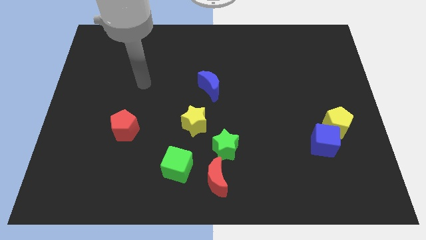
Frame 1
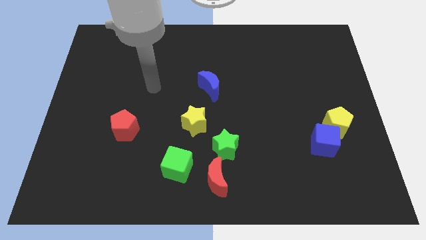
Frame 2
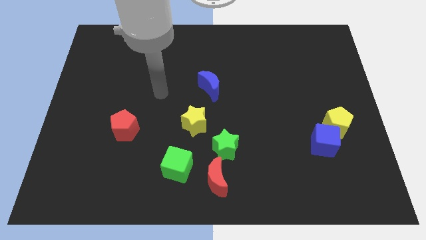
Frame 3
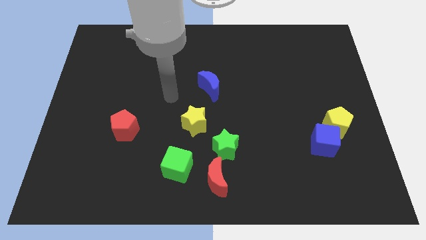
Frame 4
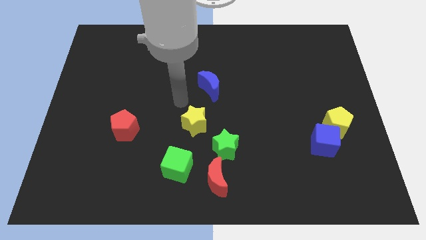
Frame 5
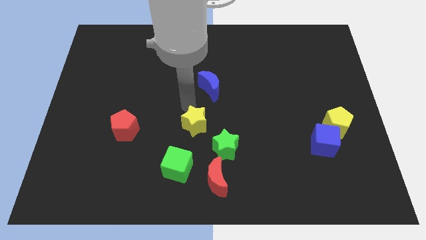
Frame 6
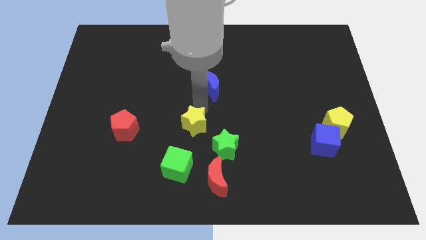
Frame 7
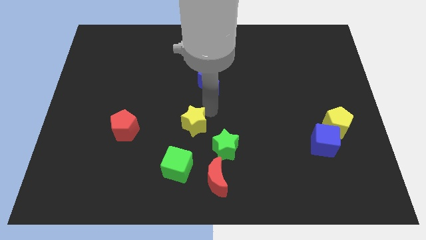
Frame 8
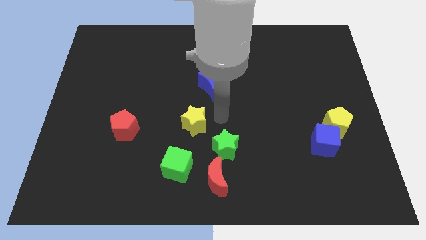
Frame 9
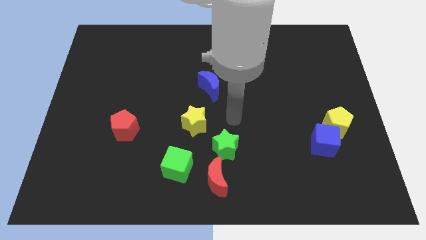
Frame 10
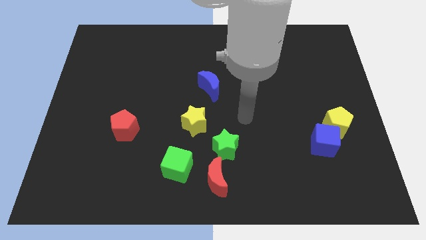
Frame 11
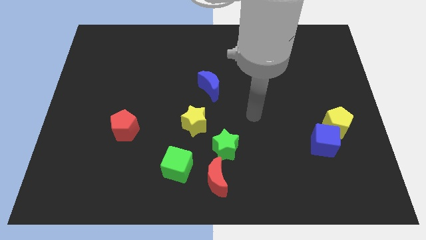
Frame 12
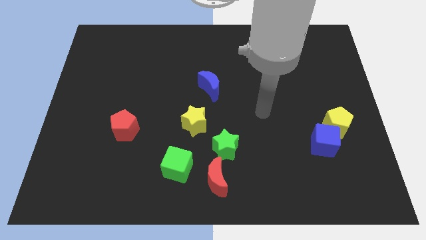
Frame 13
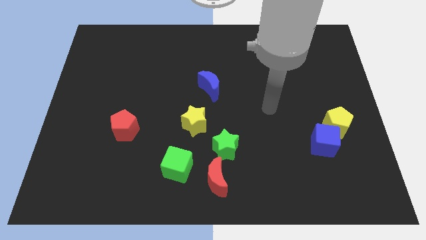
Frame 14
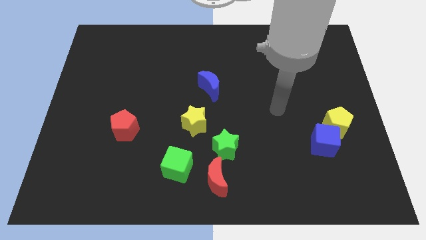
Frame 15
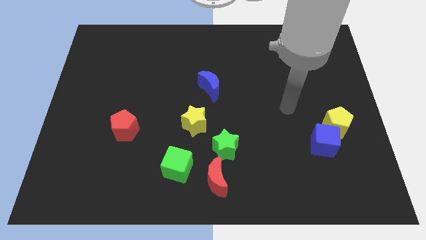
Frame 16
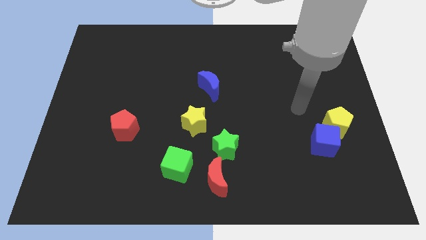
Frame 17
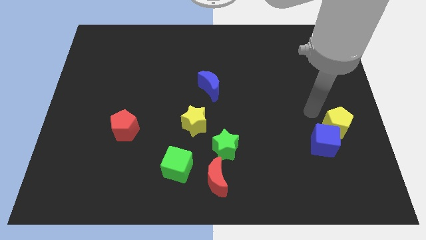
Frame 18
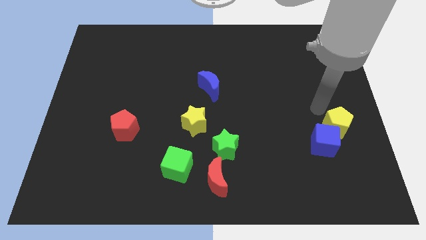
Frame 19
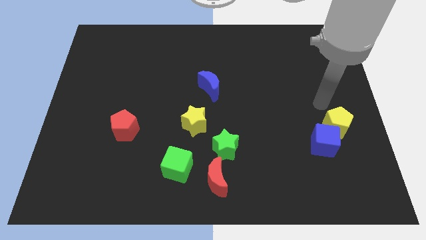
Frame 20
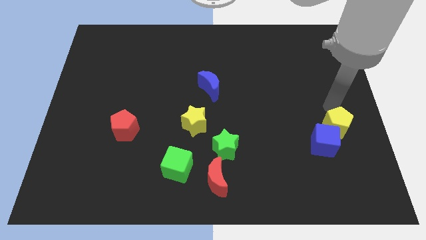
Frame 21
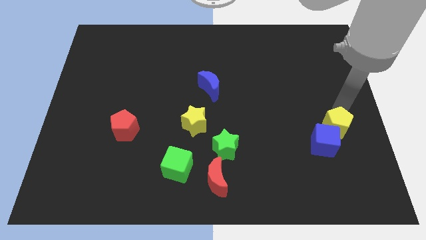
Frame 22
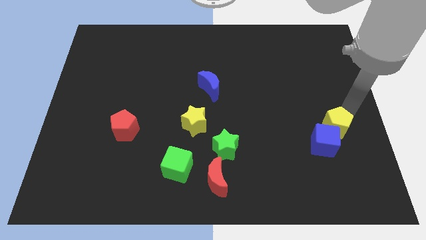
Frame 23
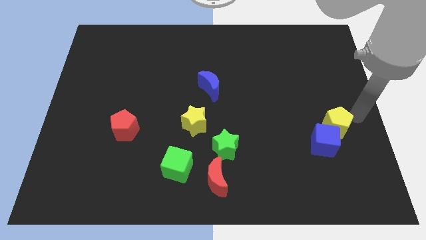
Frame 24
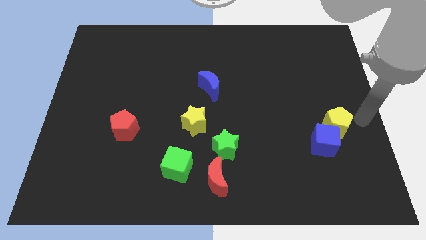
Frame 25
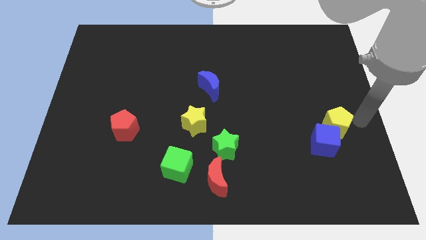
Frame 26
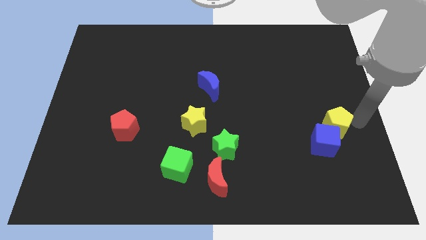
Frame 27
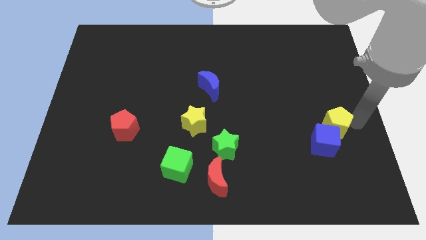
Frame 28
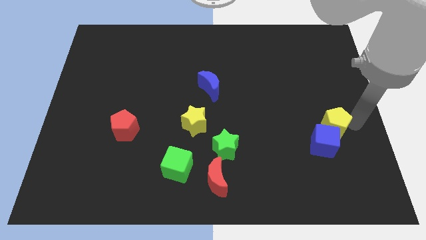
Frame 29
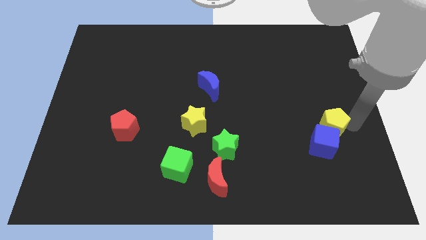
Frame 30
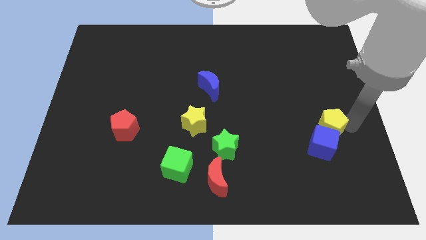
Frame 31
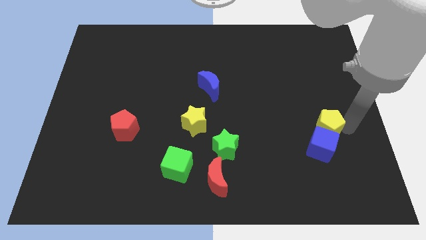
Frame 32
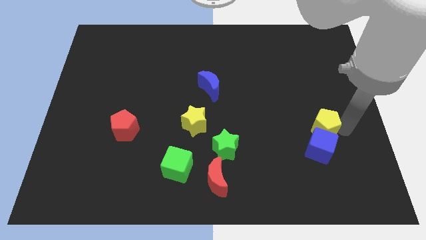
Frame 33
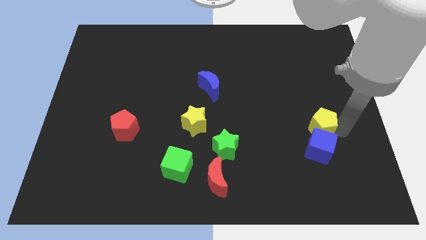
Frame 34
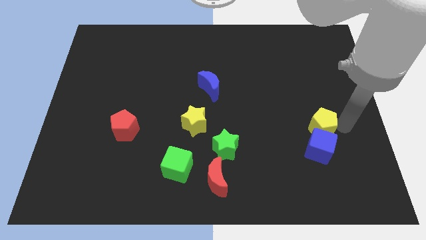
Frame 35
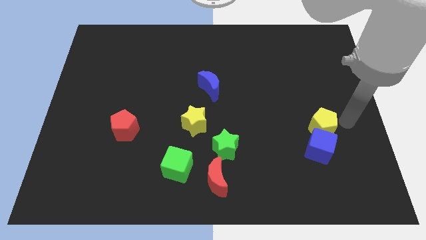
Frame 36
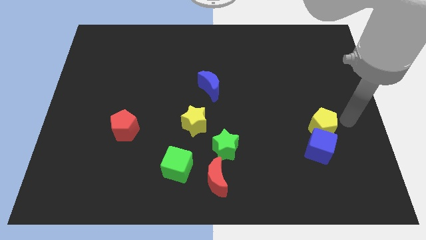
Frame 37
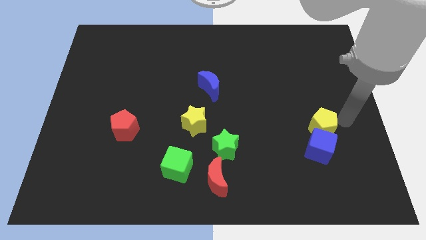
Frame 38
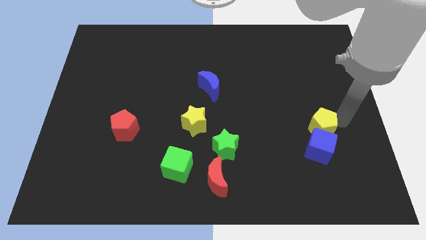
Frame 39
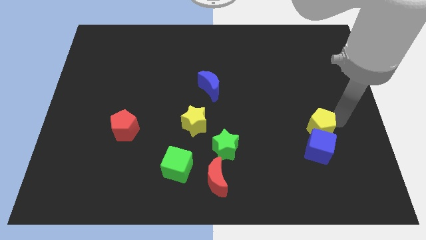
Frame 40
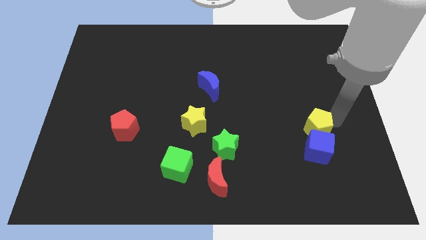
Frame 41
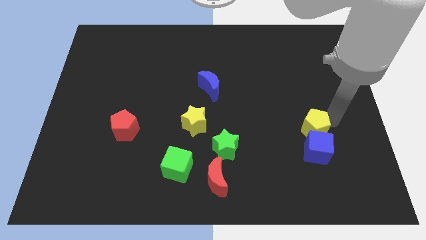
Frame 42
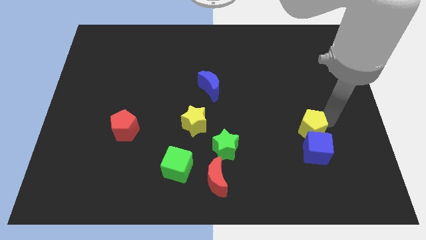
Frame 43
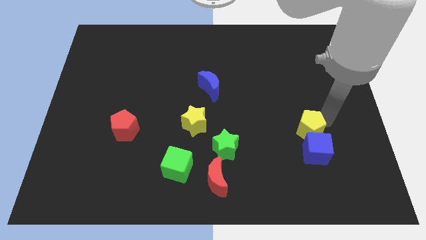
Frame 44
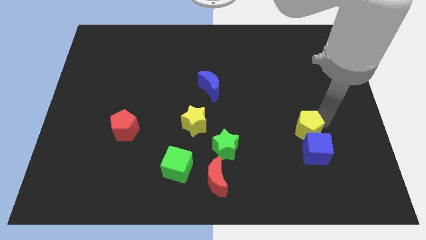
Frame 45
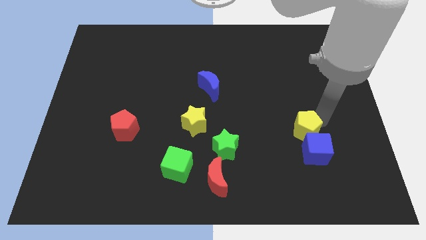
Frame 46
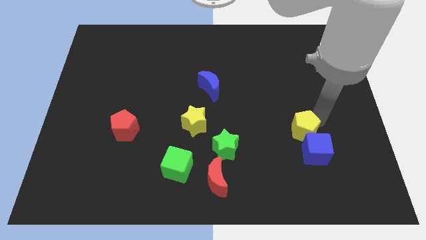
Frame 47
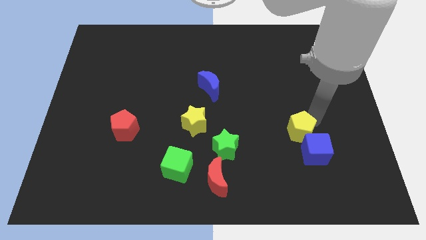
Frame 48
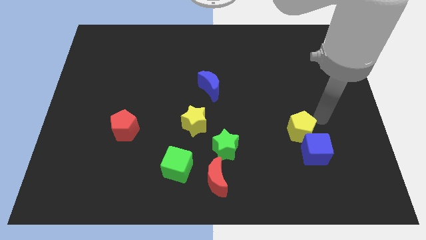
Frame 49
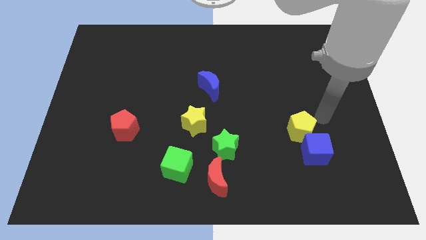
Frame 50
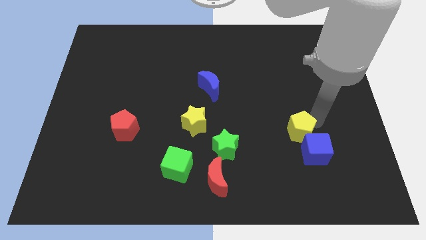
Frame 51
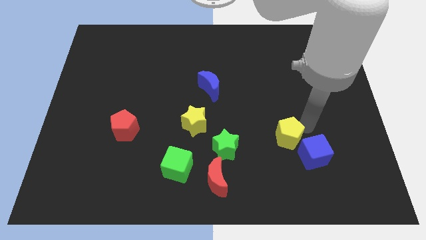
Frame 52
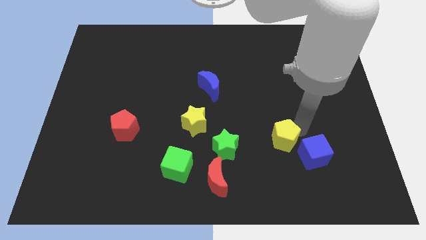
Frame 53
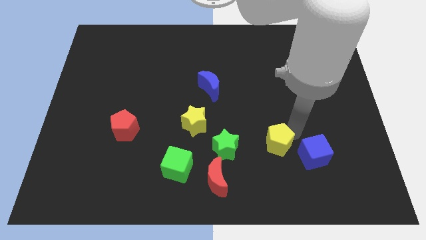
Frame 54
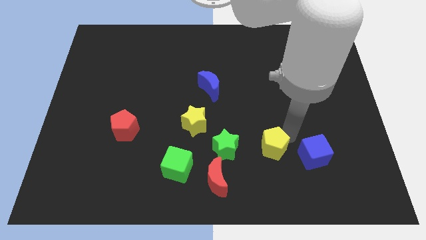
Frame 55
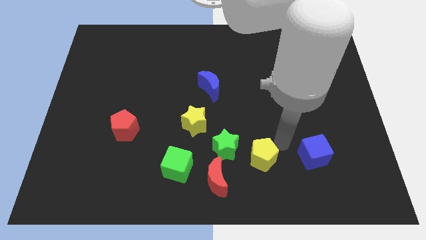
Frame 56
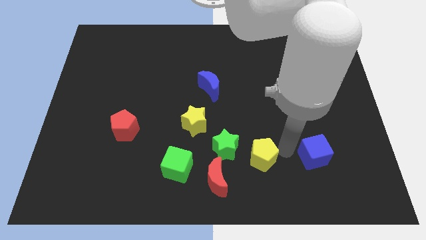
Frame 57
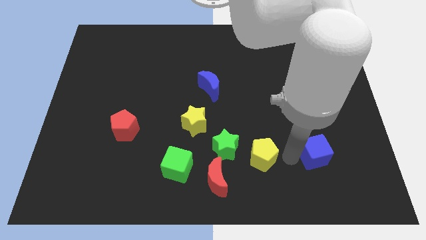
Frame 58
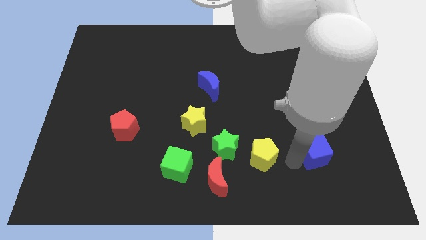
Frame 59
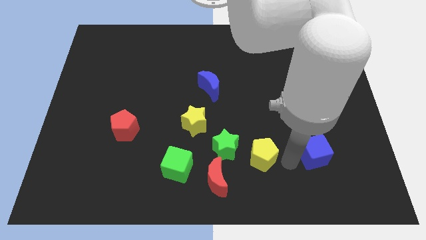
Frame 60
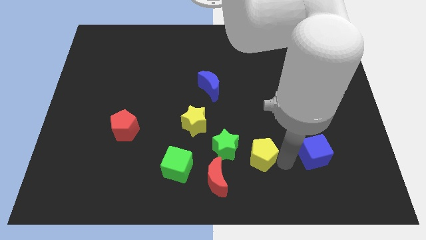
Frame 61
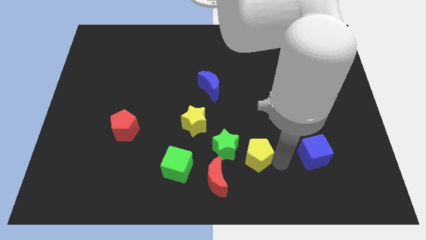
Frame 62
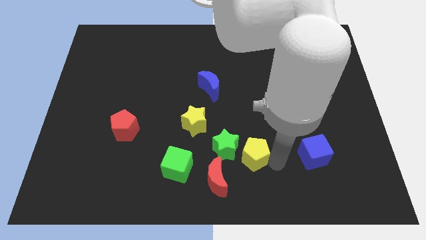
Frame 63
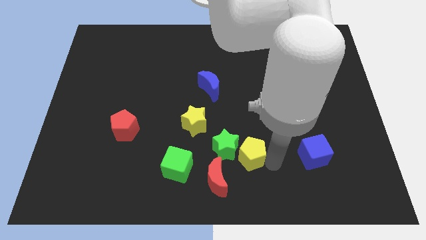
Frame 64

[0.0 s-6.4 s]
move the yellow pentagon towards the green star

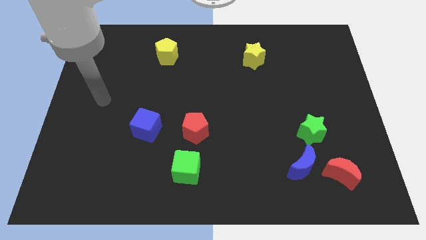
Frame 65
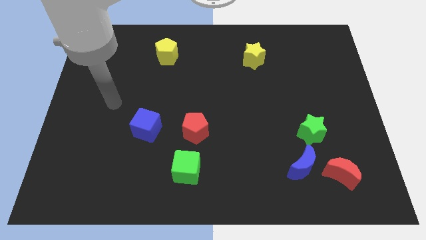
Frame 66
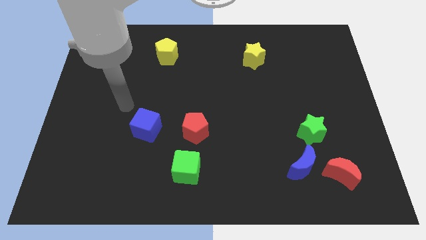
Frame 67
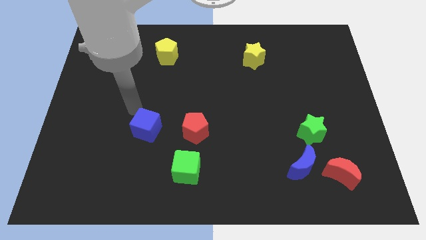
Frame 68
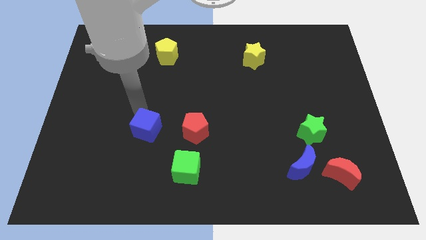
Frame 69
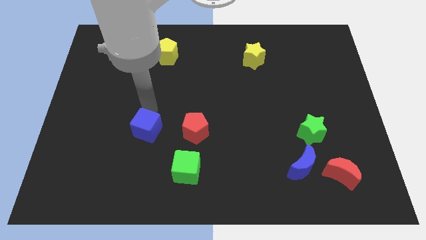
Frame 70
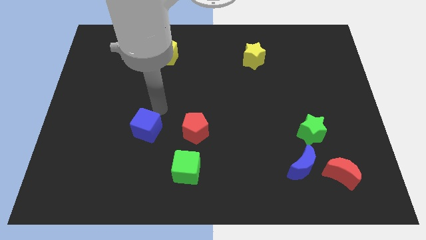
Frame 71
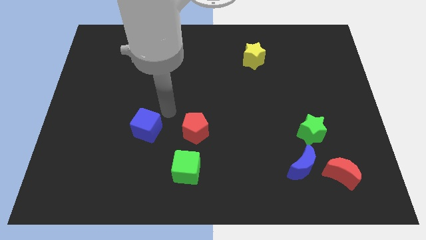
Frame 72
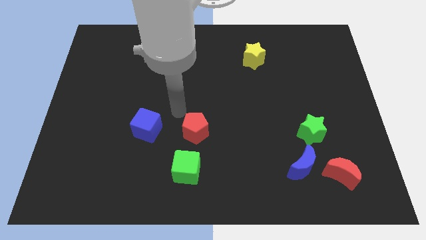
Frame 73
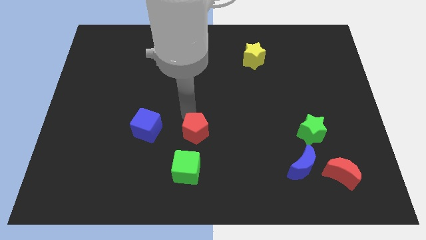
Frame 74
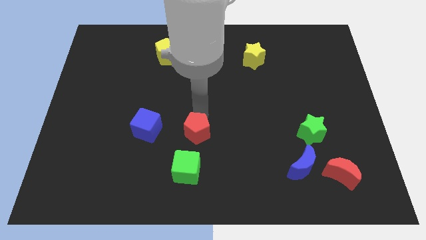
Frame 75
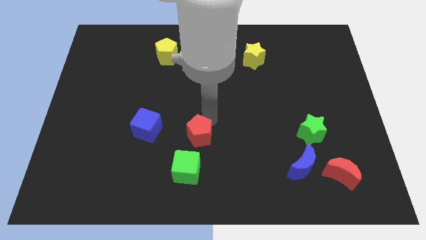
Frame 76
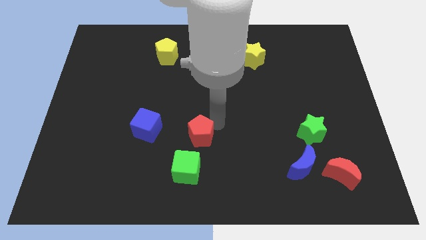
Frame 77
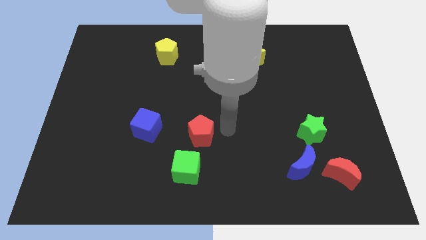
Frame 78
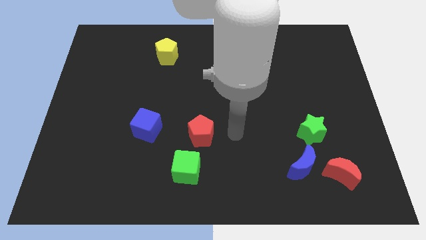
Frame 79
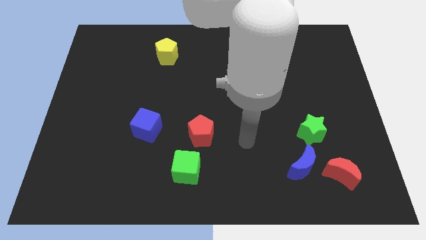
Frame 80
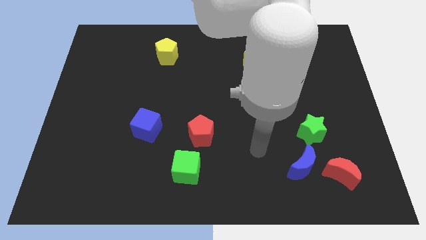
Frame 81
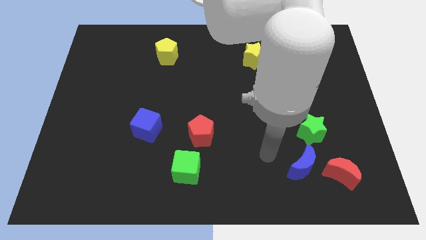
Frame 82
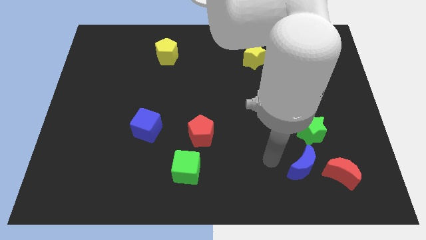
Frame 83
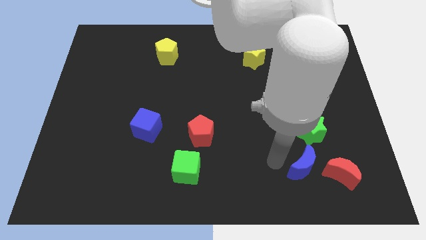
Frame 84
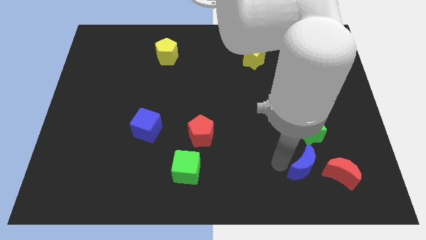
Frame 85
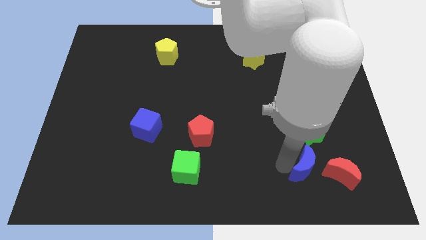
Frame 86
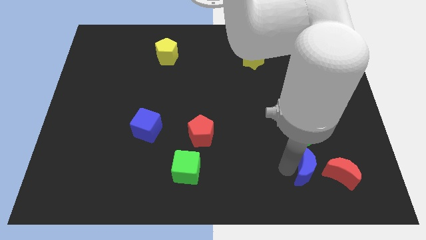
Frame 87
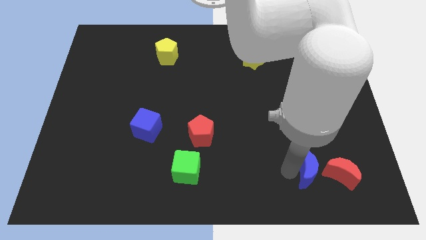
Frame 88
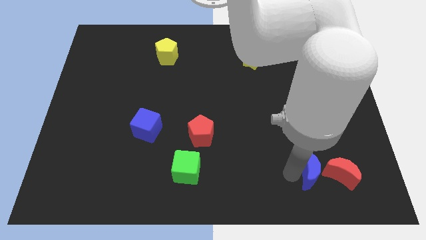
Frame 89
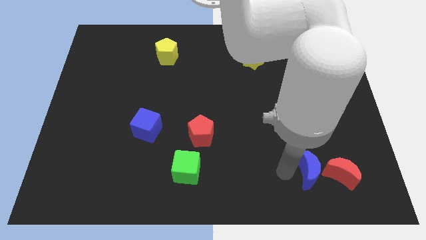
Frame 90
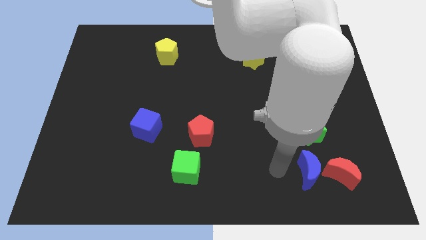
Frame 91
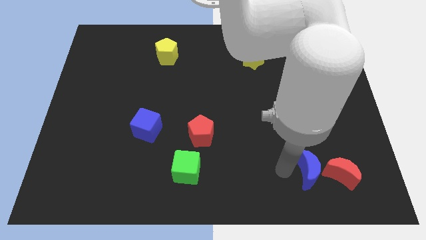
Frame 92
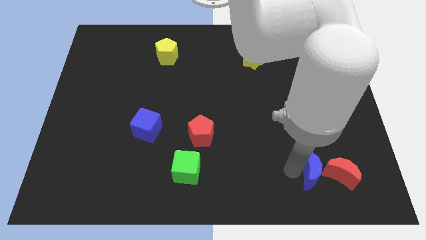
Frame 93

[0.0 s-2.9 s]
push the blue moon towards the red moon
